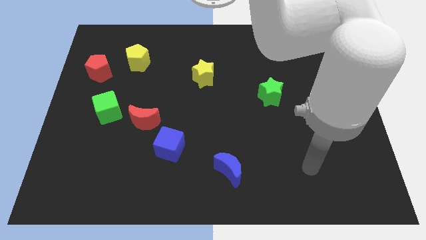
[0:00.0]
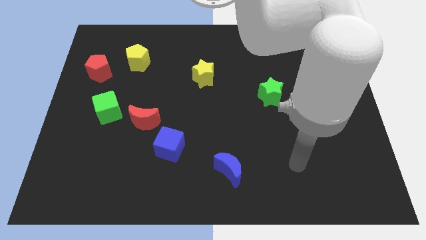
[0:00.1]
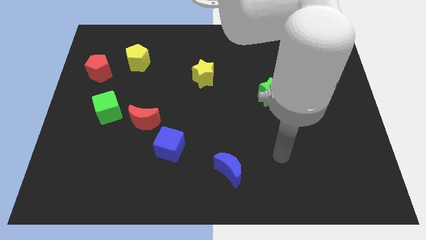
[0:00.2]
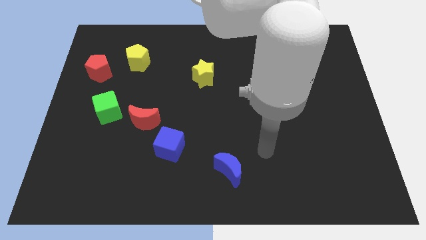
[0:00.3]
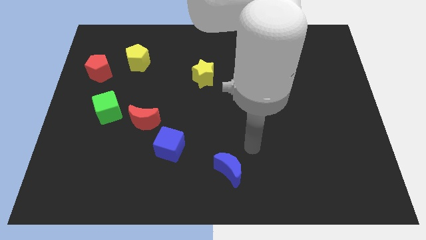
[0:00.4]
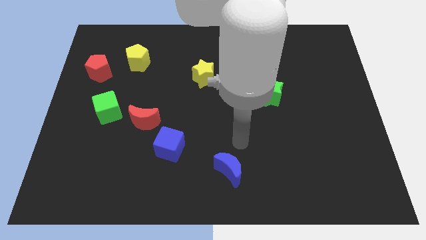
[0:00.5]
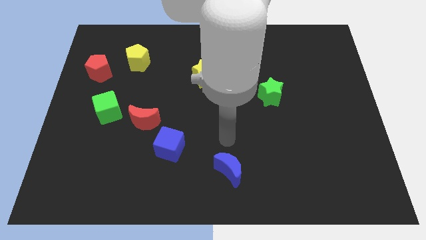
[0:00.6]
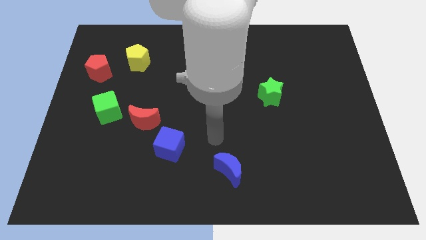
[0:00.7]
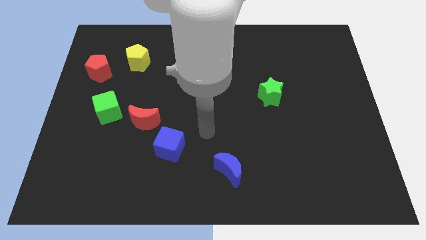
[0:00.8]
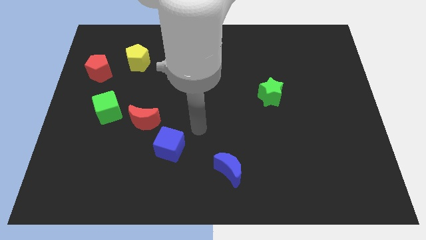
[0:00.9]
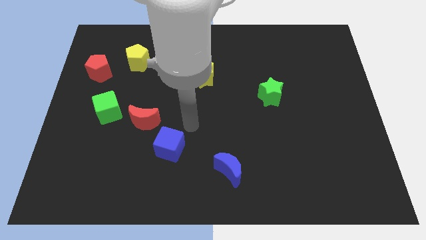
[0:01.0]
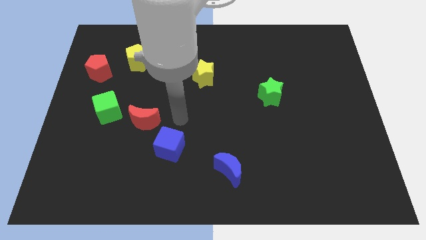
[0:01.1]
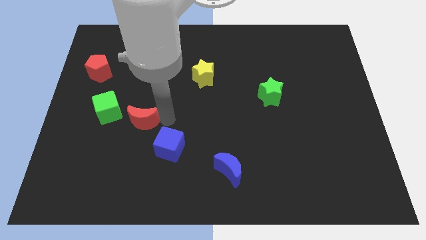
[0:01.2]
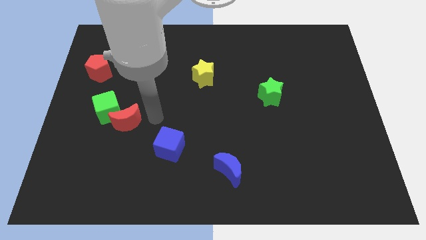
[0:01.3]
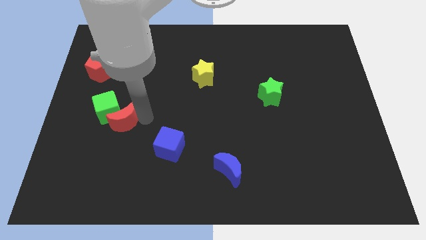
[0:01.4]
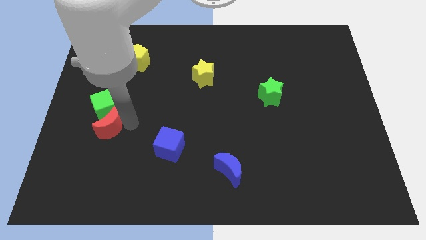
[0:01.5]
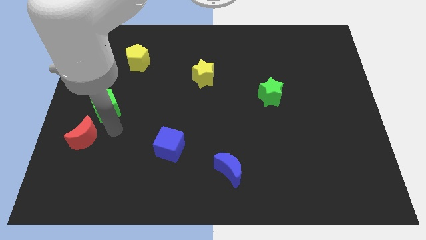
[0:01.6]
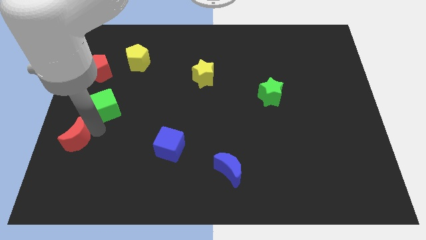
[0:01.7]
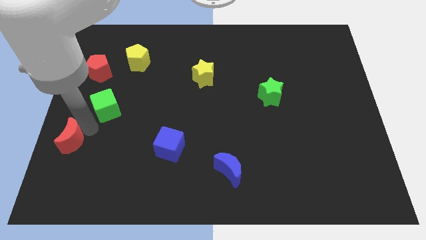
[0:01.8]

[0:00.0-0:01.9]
move the green cube away from the red moon

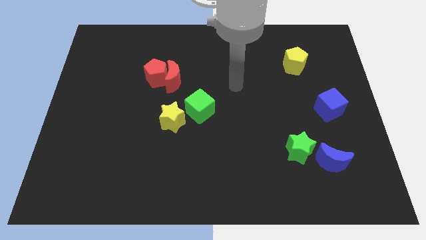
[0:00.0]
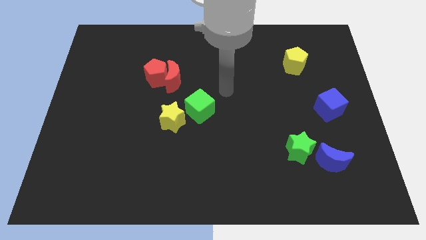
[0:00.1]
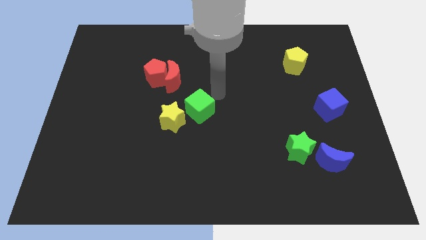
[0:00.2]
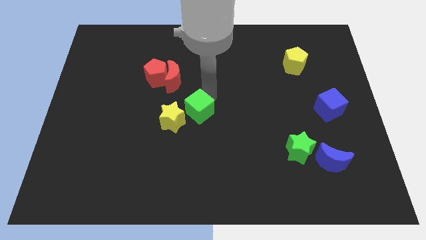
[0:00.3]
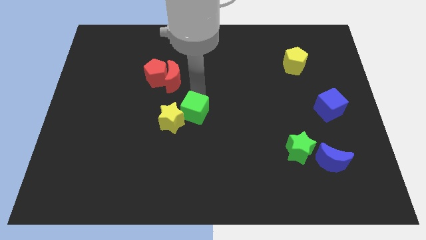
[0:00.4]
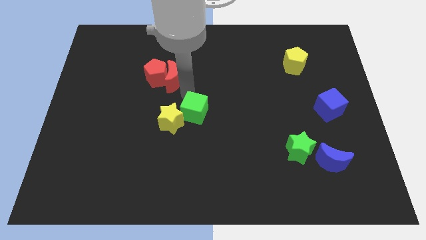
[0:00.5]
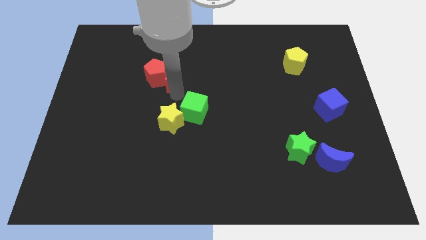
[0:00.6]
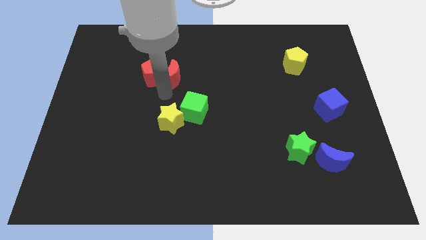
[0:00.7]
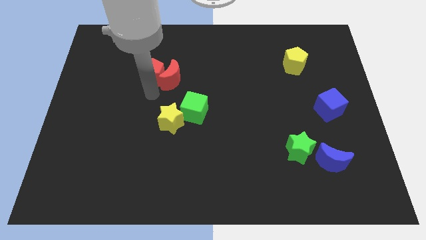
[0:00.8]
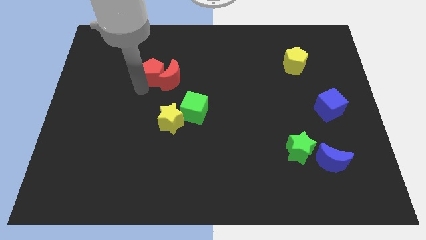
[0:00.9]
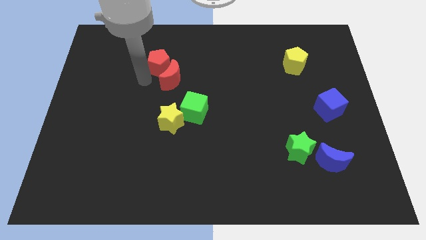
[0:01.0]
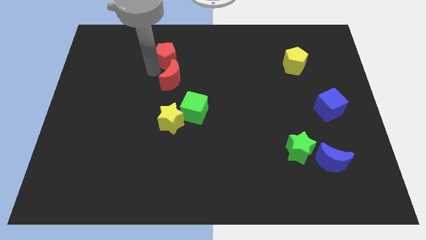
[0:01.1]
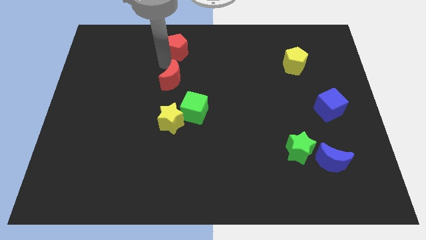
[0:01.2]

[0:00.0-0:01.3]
separate the red moon from the red pentagon

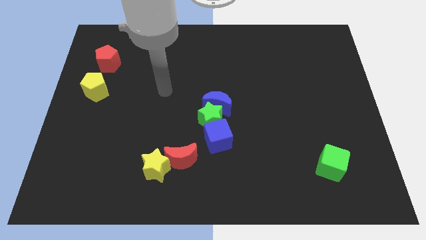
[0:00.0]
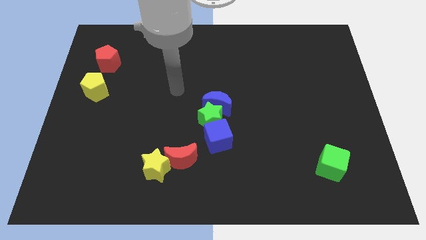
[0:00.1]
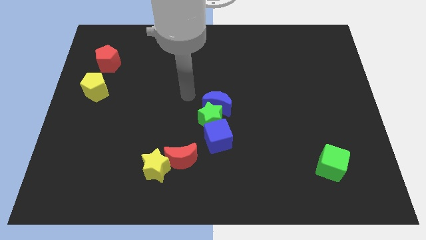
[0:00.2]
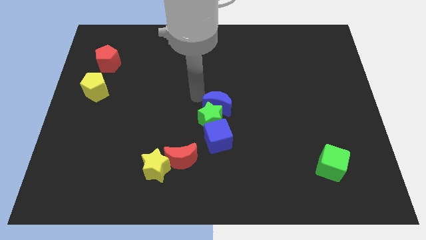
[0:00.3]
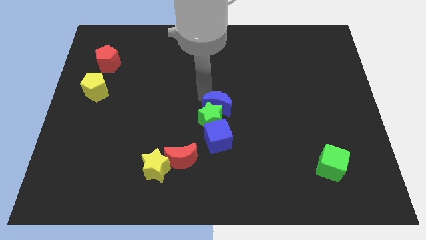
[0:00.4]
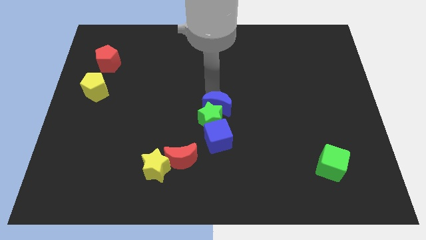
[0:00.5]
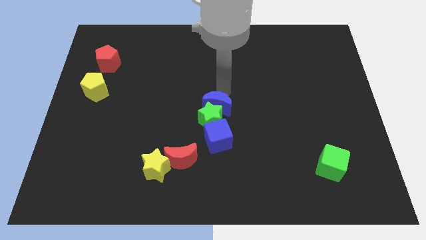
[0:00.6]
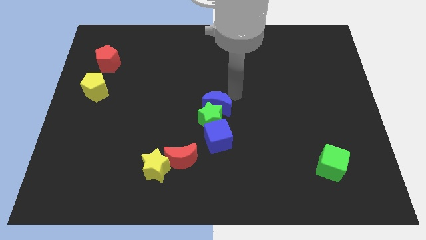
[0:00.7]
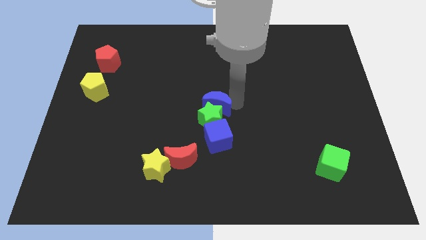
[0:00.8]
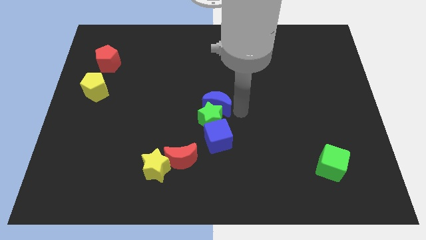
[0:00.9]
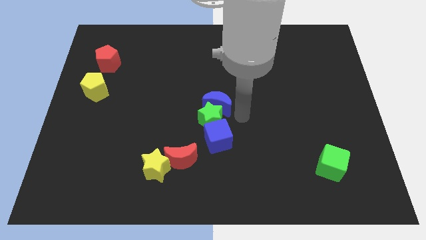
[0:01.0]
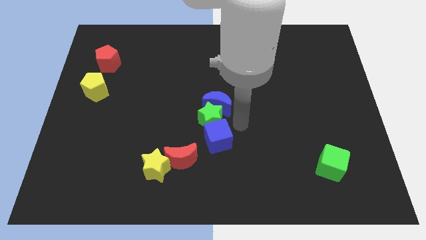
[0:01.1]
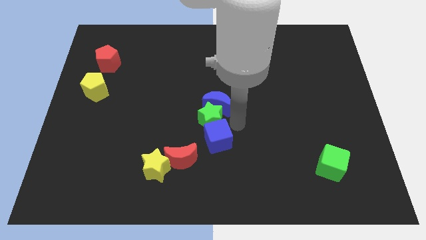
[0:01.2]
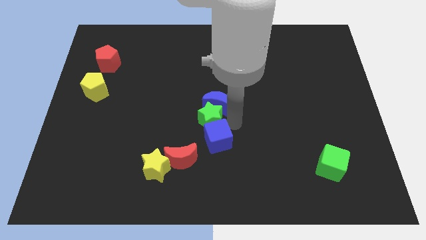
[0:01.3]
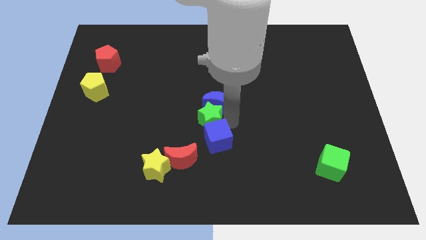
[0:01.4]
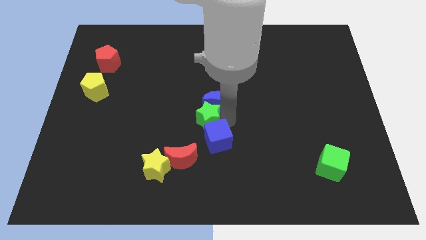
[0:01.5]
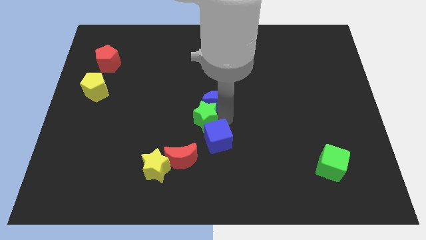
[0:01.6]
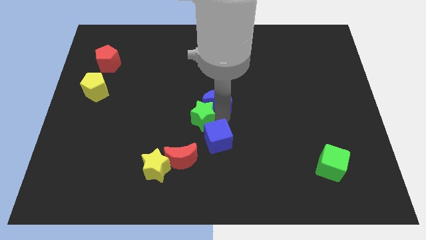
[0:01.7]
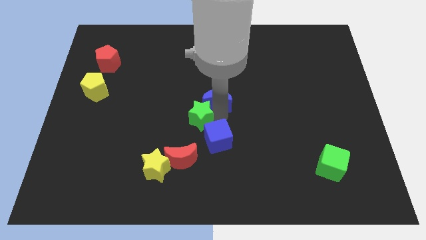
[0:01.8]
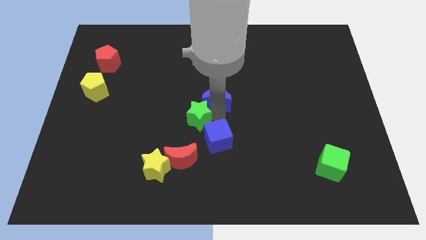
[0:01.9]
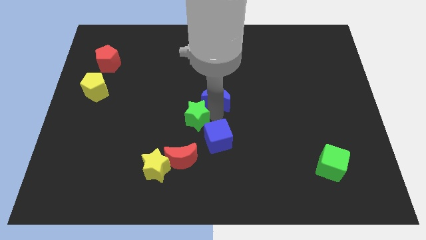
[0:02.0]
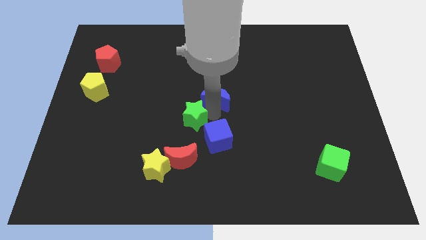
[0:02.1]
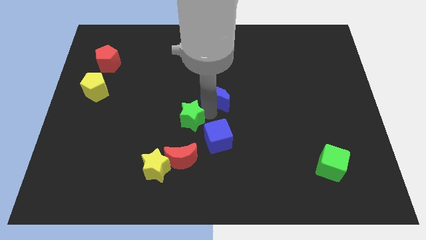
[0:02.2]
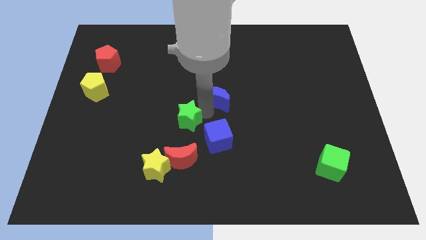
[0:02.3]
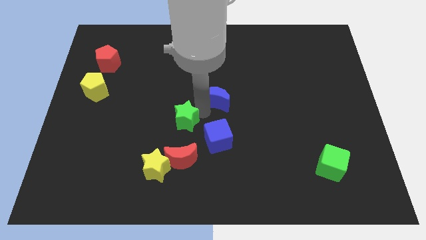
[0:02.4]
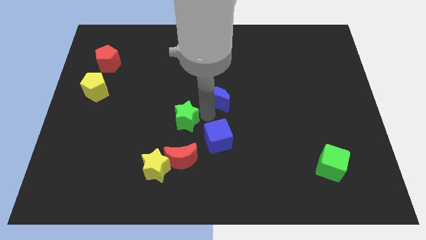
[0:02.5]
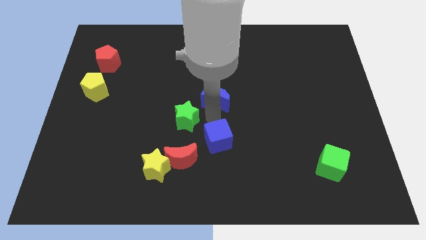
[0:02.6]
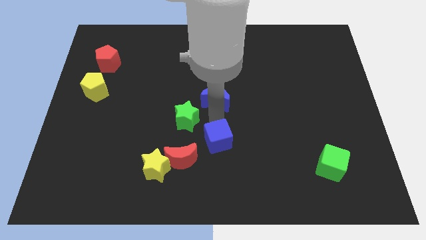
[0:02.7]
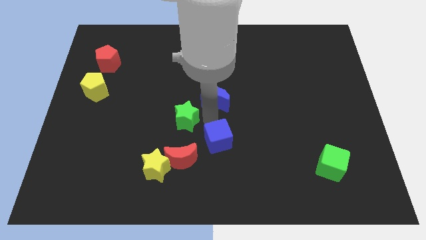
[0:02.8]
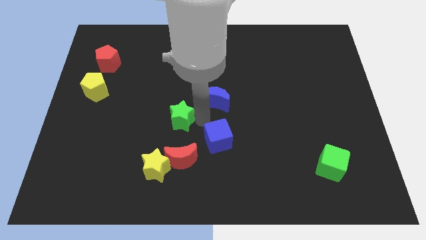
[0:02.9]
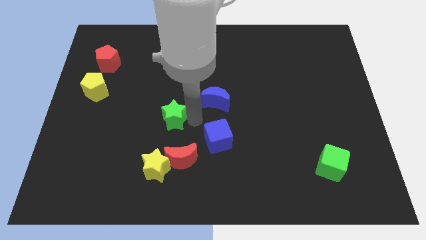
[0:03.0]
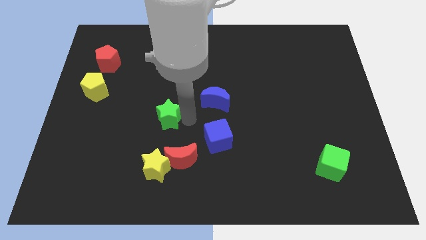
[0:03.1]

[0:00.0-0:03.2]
pull the green star apart from the blue moon and blue cube

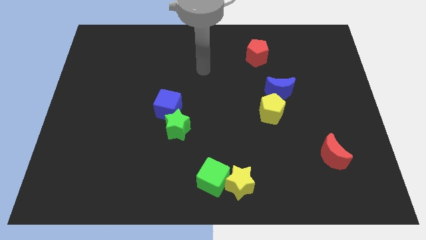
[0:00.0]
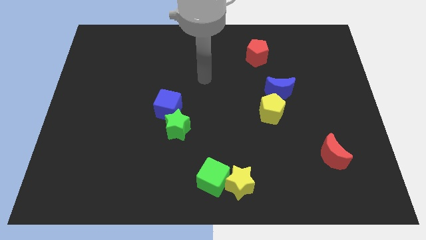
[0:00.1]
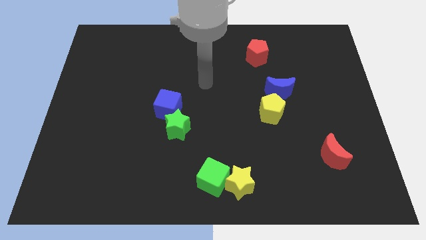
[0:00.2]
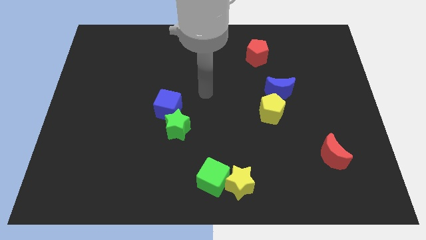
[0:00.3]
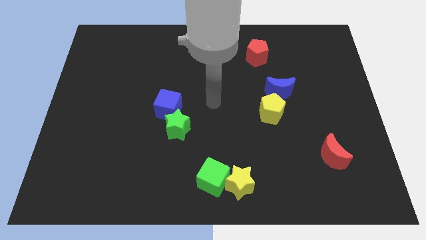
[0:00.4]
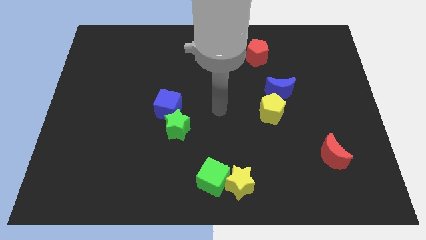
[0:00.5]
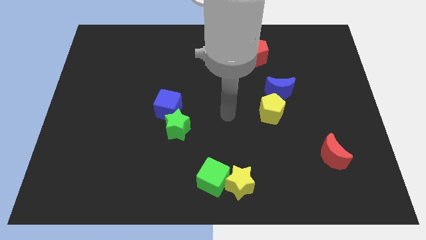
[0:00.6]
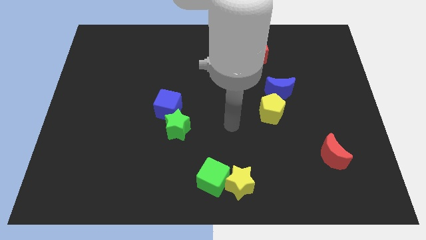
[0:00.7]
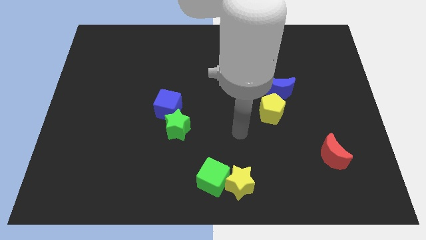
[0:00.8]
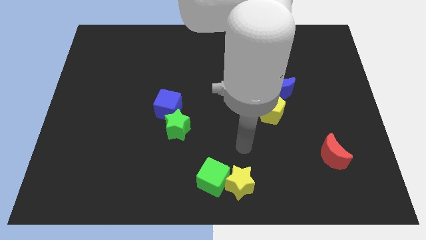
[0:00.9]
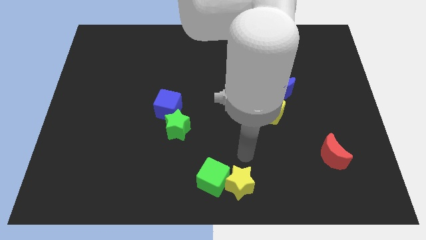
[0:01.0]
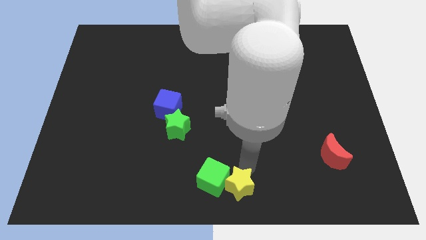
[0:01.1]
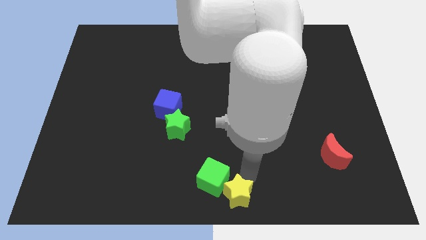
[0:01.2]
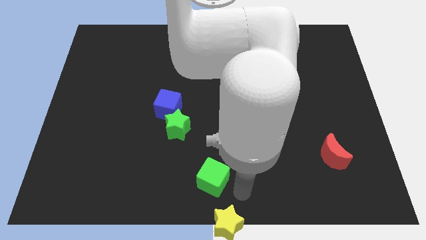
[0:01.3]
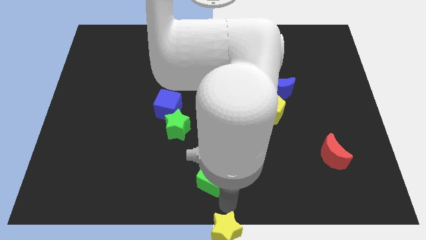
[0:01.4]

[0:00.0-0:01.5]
pull the green cube apart from the yellow star

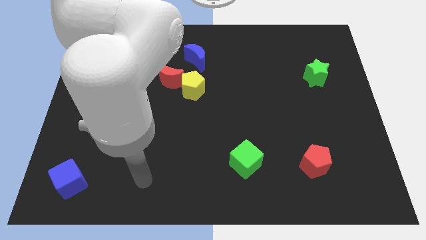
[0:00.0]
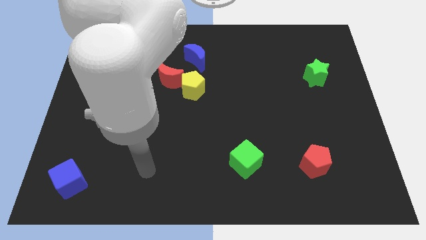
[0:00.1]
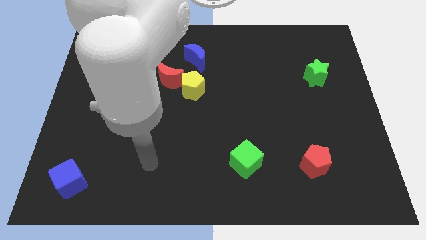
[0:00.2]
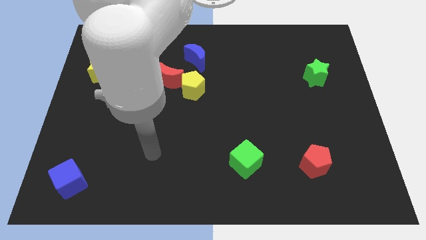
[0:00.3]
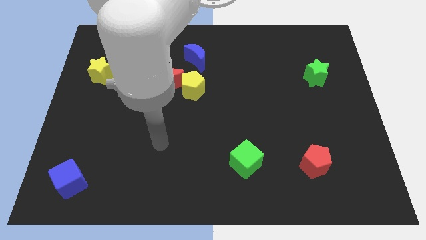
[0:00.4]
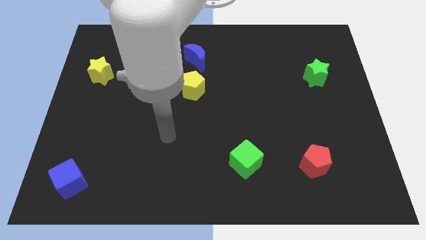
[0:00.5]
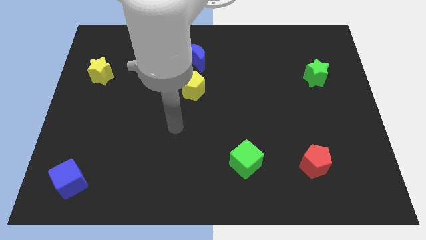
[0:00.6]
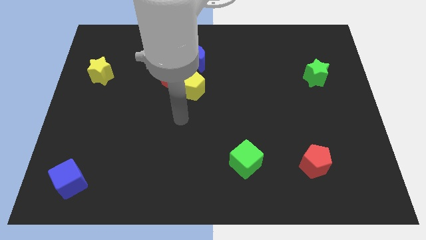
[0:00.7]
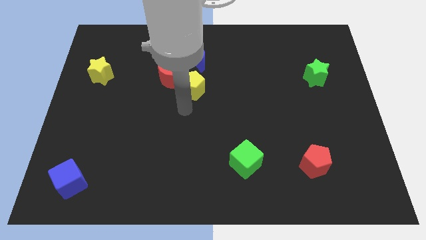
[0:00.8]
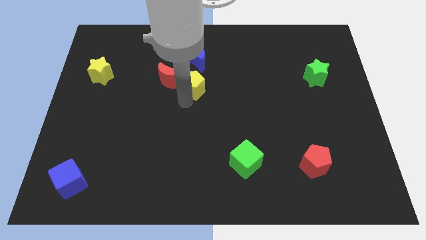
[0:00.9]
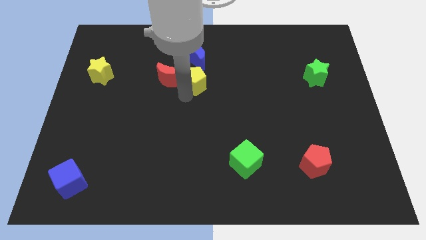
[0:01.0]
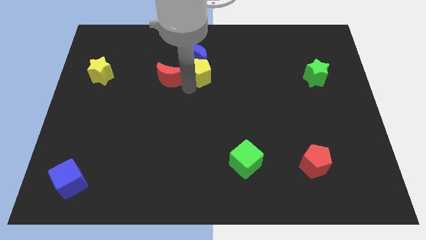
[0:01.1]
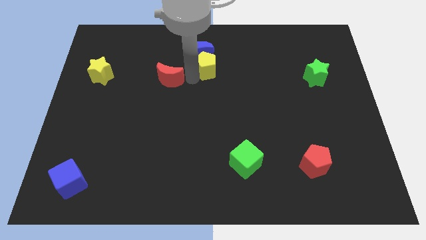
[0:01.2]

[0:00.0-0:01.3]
move the red moon away from the yellow pentagon and blue moon

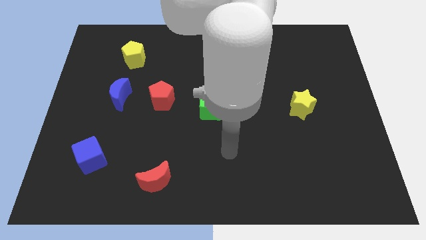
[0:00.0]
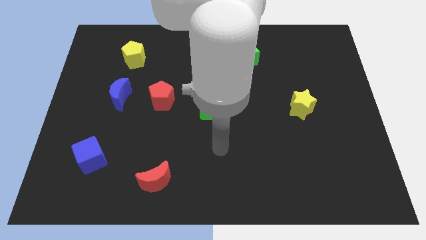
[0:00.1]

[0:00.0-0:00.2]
move the red pentagon away from the blue moon
